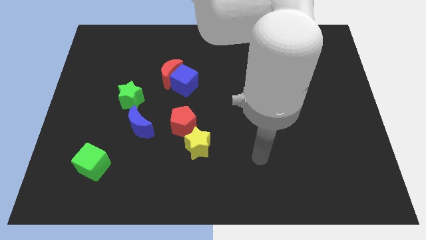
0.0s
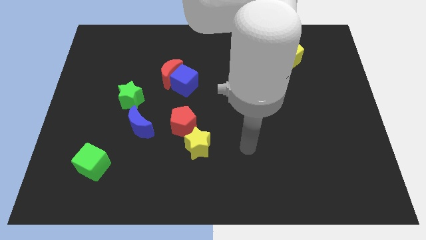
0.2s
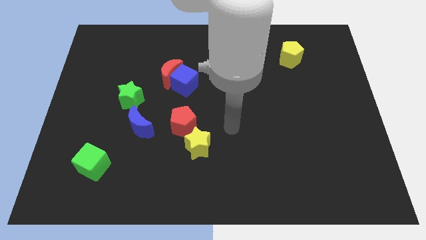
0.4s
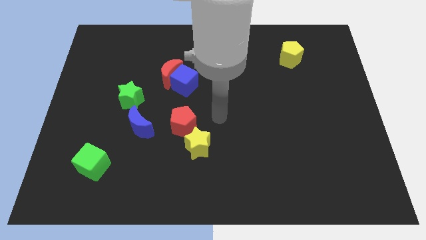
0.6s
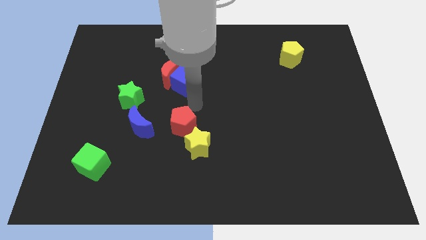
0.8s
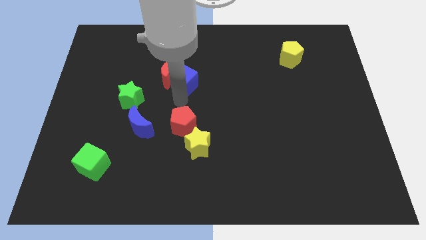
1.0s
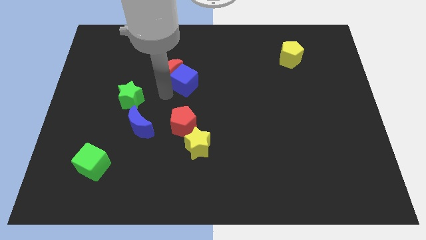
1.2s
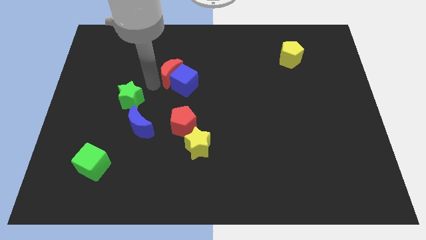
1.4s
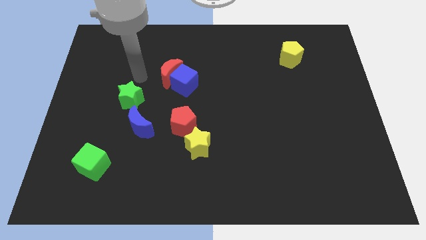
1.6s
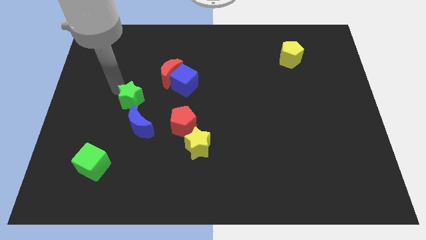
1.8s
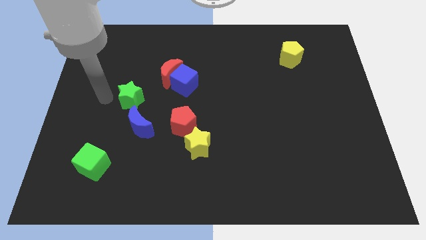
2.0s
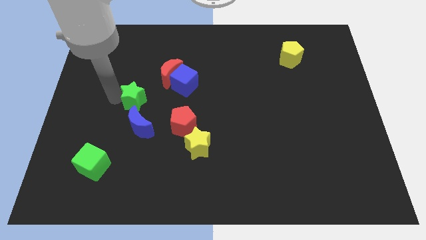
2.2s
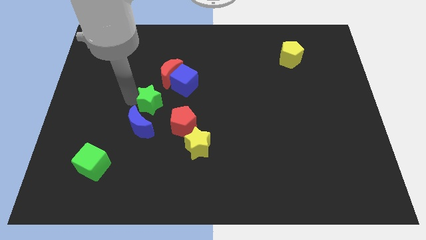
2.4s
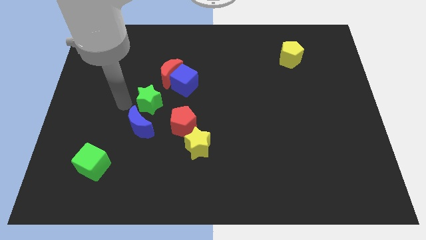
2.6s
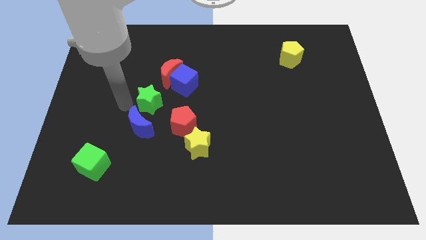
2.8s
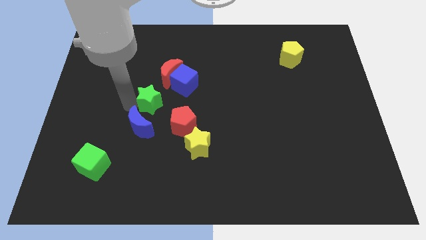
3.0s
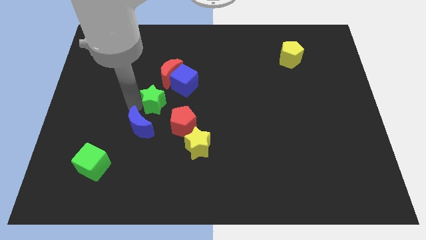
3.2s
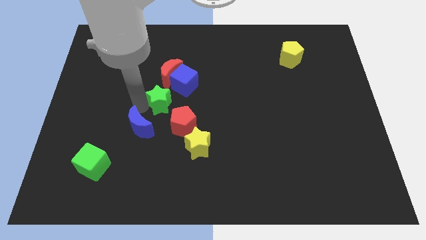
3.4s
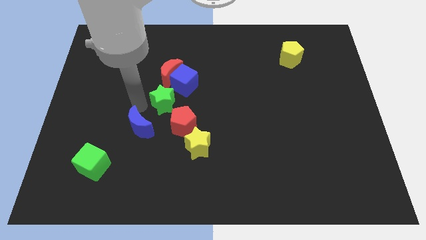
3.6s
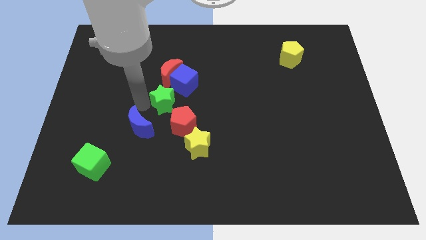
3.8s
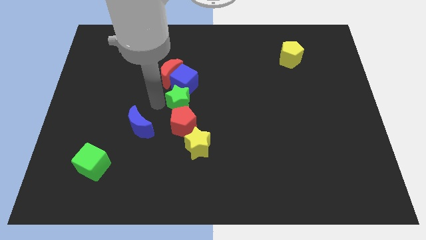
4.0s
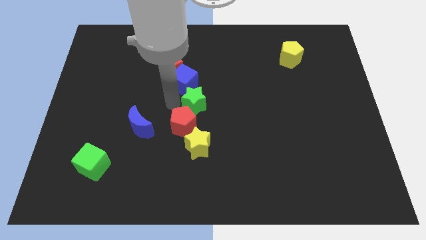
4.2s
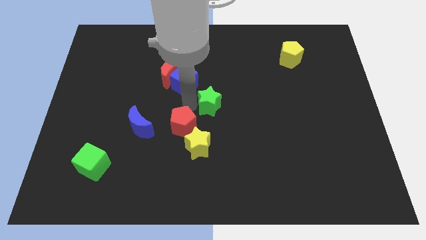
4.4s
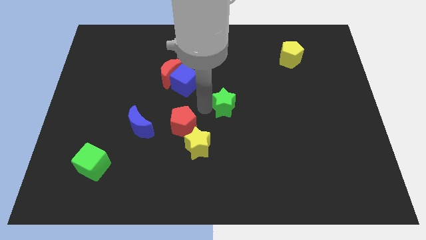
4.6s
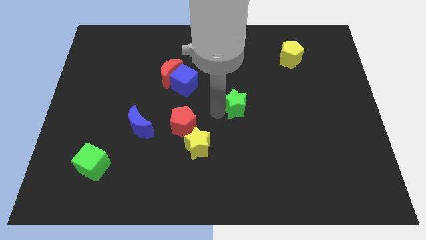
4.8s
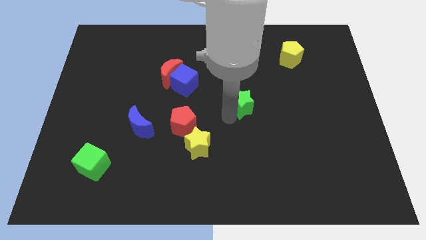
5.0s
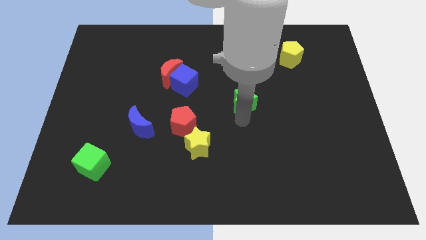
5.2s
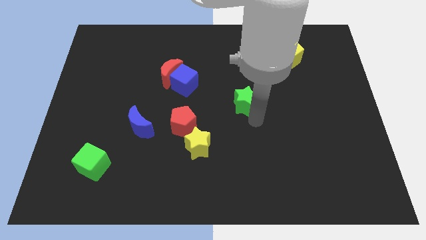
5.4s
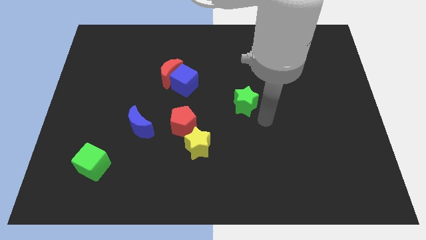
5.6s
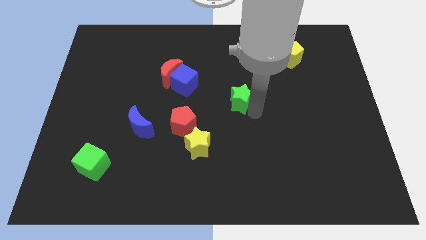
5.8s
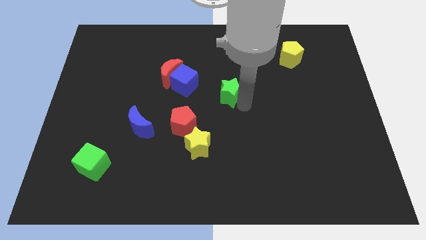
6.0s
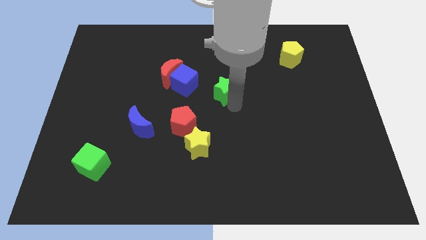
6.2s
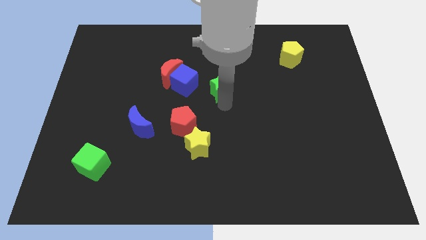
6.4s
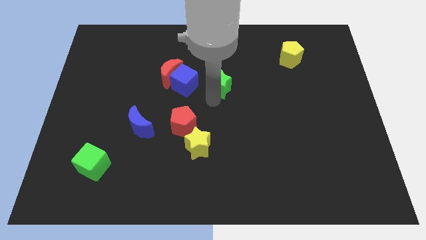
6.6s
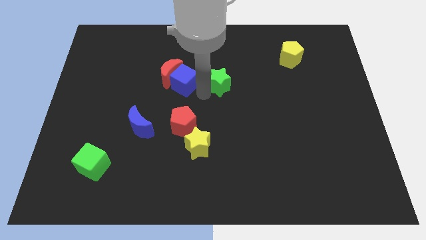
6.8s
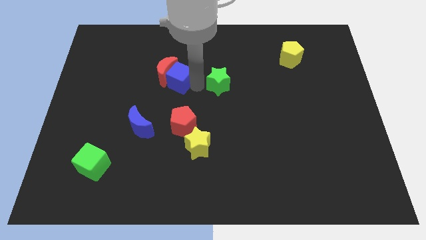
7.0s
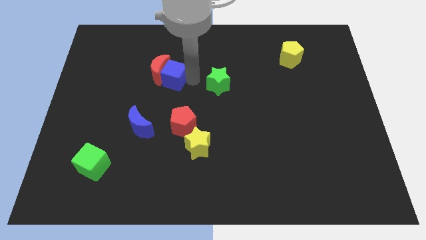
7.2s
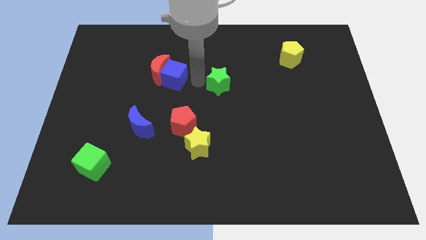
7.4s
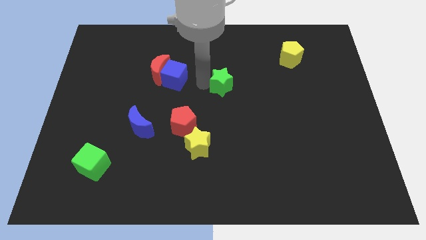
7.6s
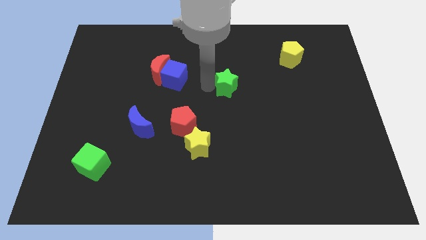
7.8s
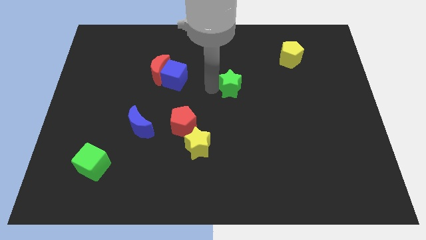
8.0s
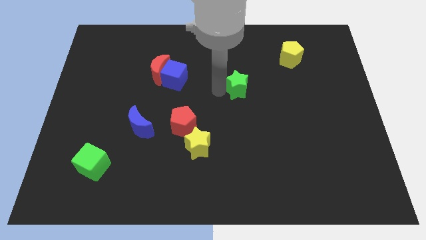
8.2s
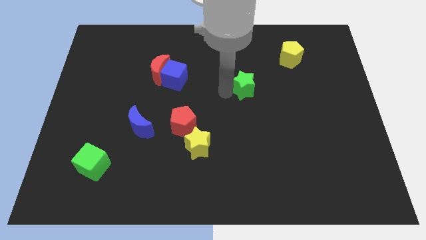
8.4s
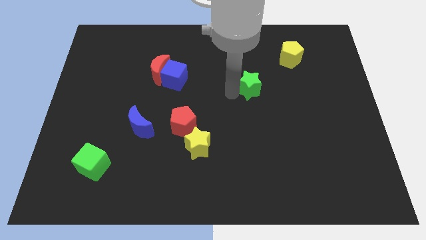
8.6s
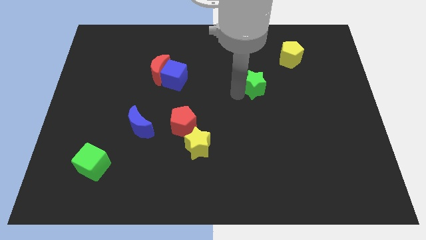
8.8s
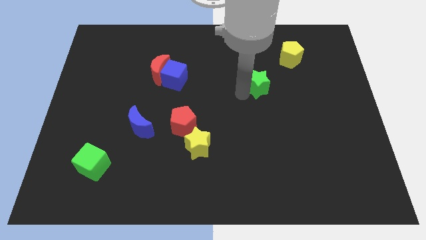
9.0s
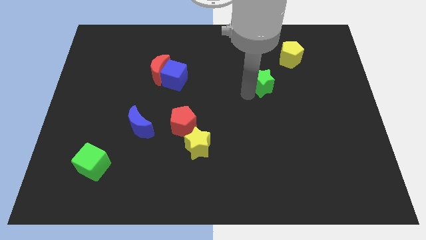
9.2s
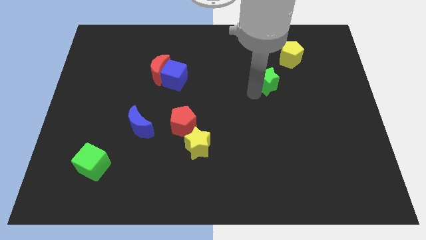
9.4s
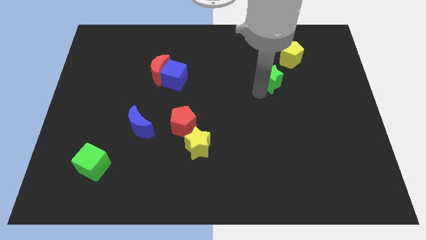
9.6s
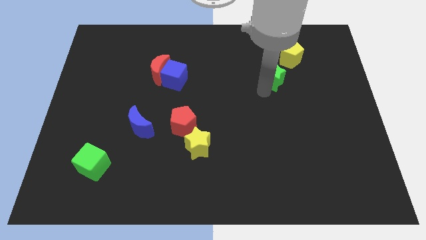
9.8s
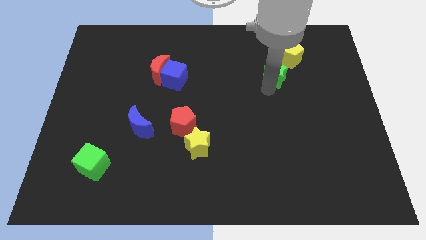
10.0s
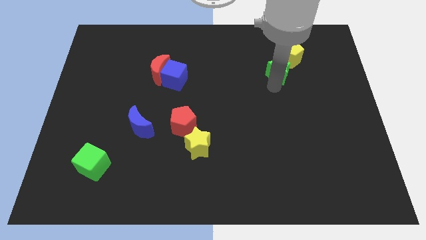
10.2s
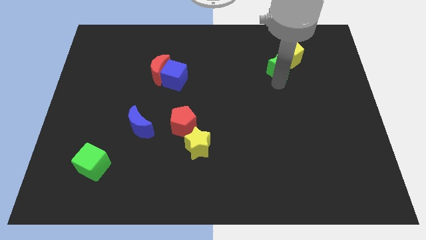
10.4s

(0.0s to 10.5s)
move the green star to the yellow pentagon

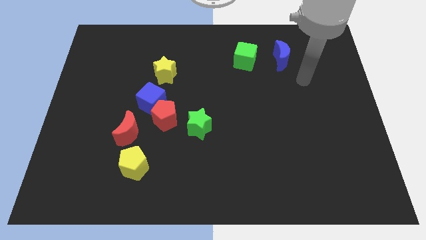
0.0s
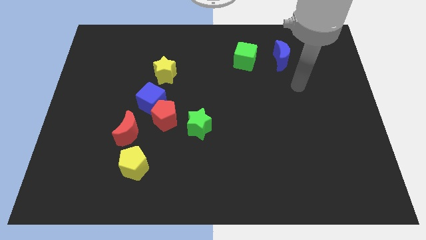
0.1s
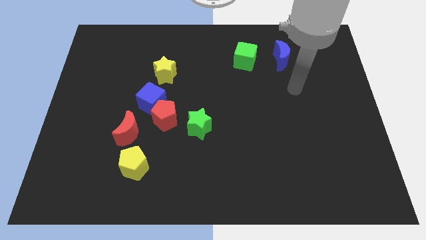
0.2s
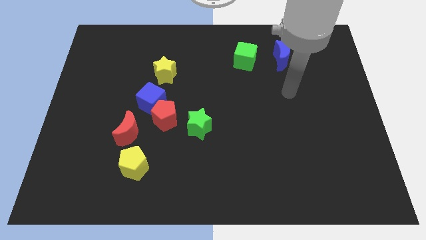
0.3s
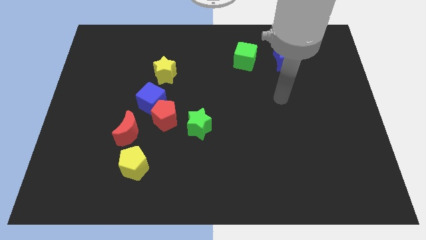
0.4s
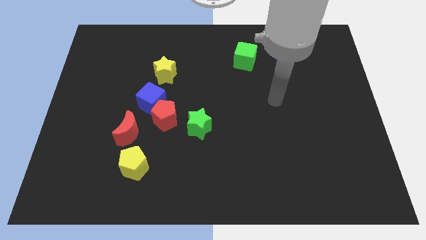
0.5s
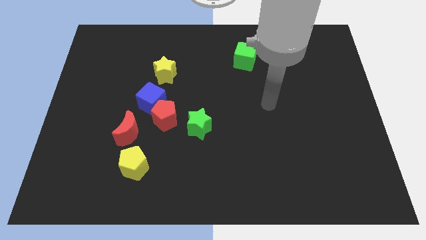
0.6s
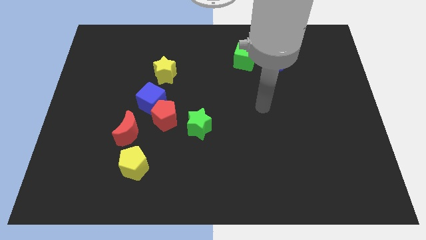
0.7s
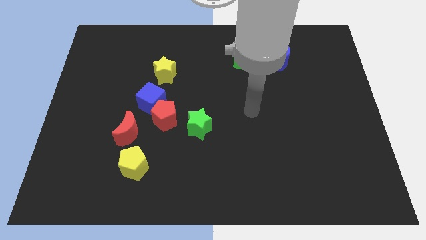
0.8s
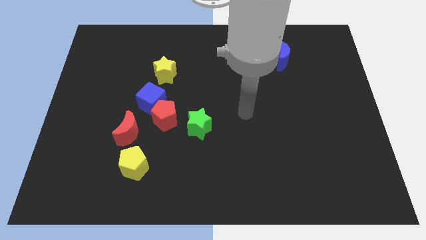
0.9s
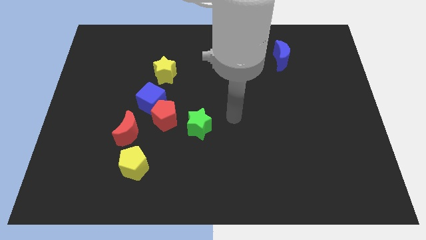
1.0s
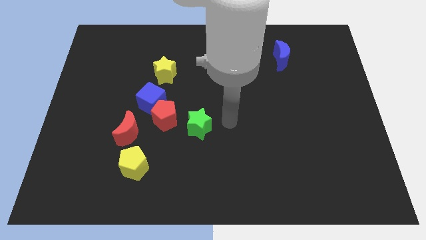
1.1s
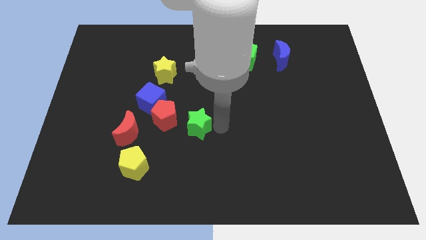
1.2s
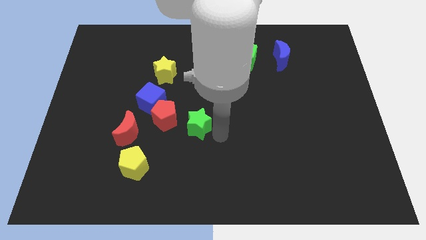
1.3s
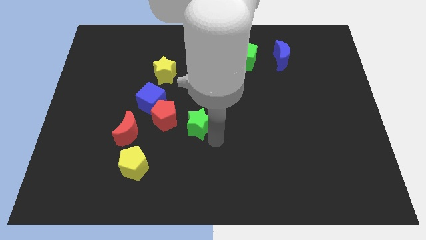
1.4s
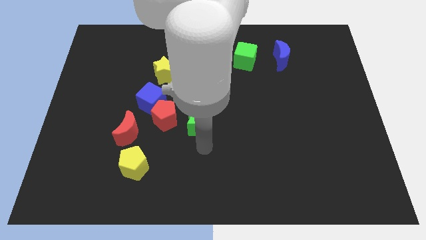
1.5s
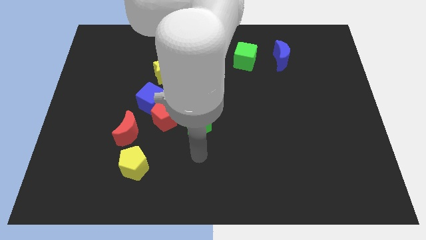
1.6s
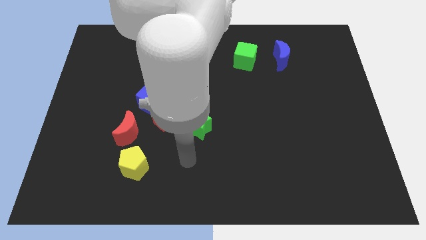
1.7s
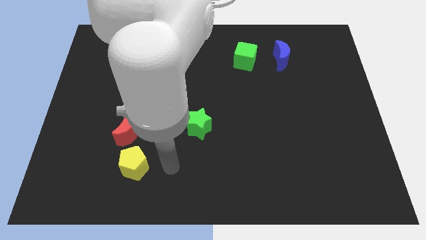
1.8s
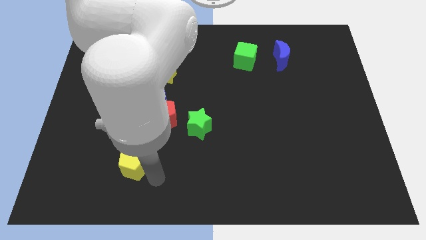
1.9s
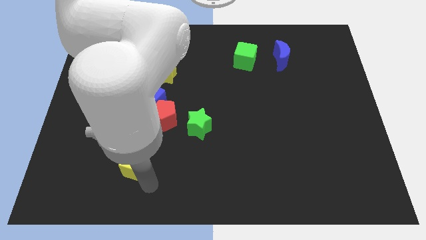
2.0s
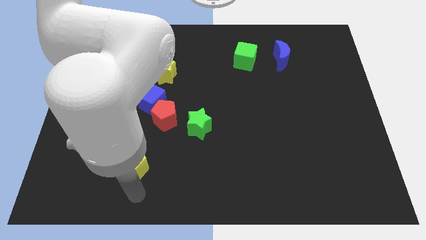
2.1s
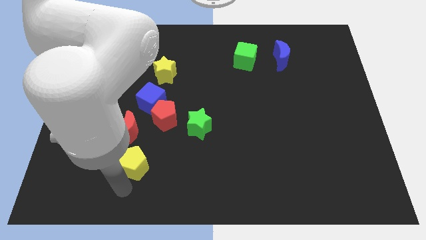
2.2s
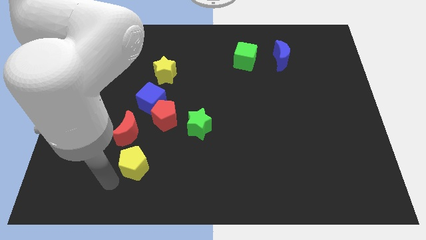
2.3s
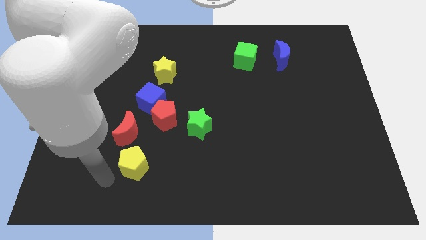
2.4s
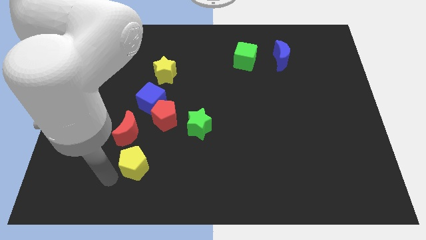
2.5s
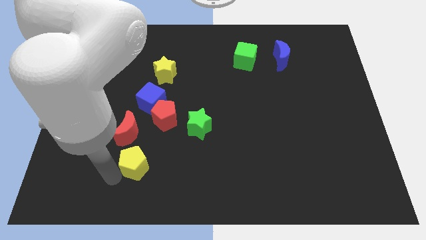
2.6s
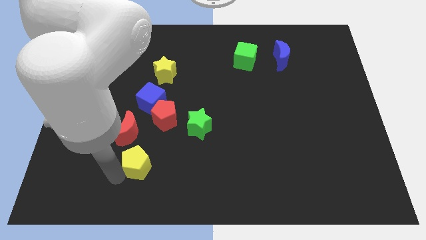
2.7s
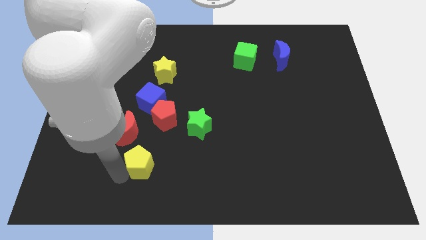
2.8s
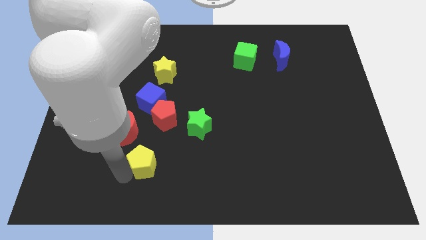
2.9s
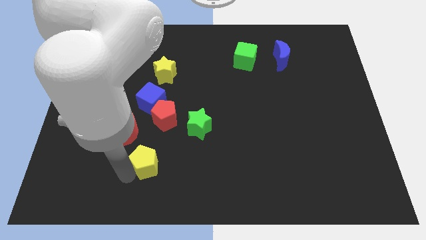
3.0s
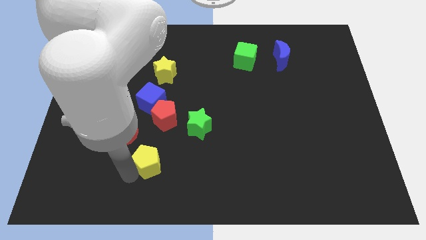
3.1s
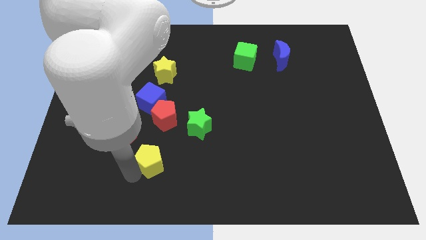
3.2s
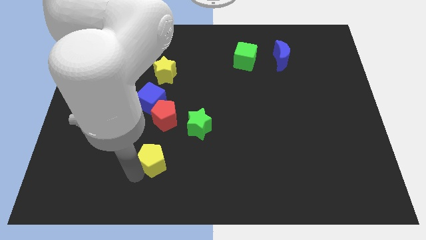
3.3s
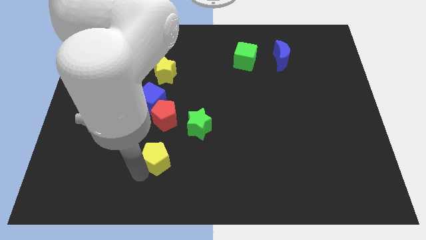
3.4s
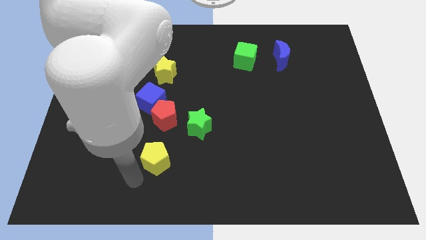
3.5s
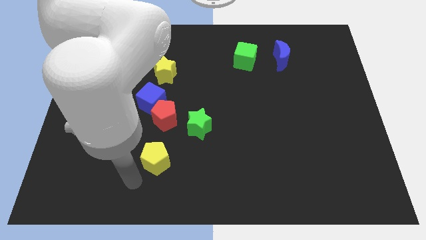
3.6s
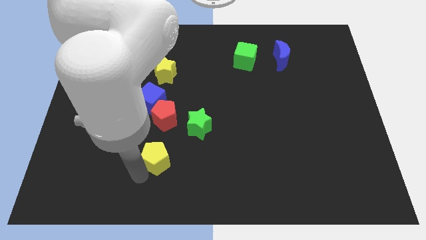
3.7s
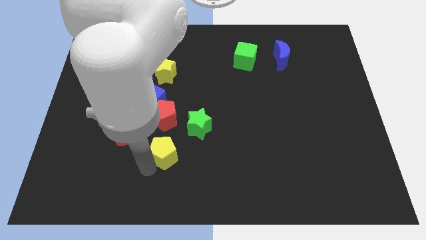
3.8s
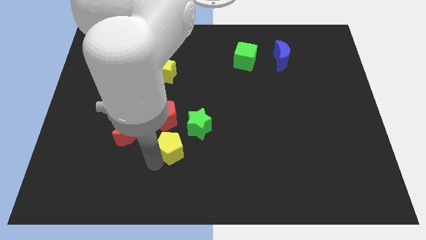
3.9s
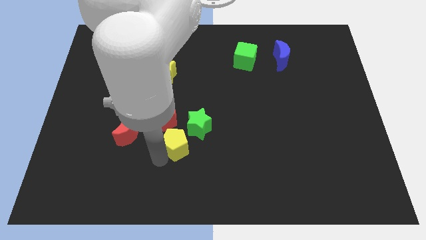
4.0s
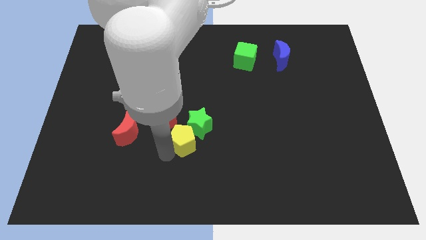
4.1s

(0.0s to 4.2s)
slide the yellow pentagon next to the green star
